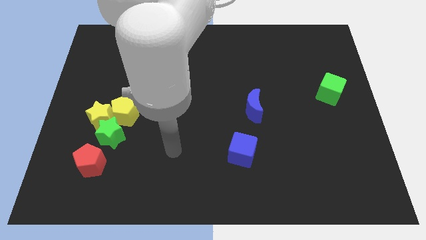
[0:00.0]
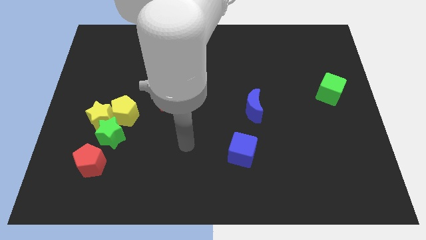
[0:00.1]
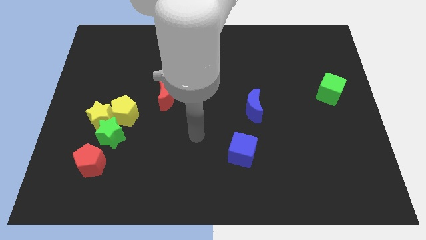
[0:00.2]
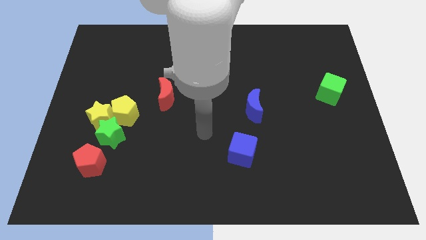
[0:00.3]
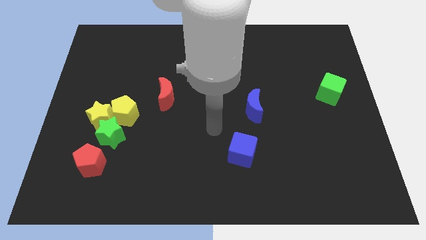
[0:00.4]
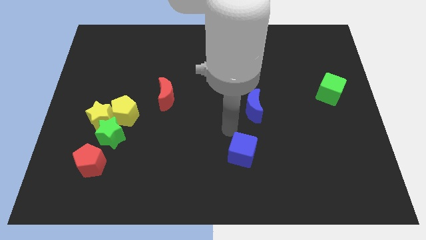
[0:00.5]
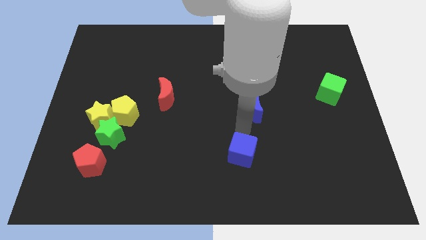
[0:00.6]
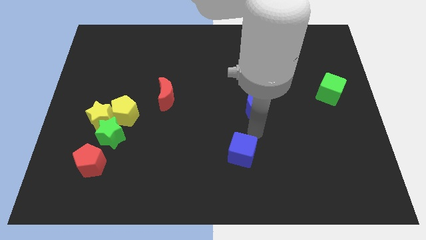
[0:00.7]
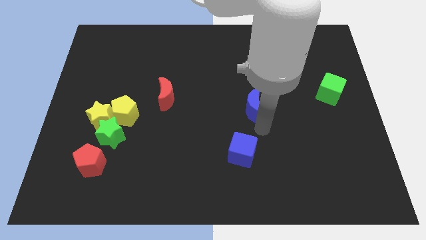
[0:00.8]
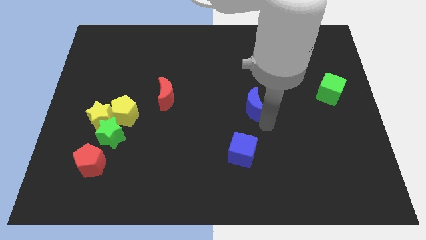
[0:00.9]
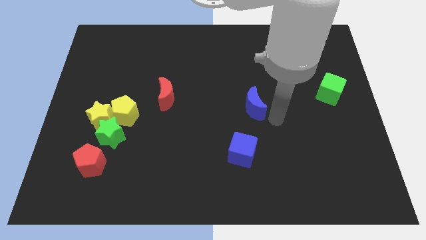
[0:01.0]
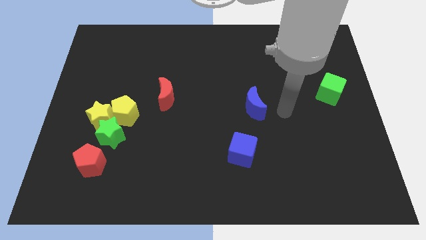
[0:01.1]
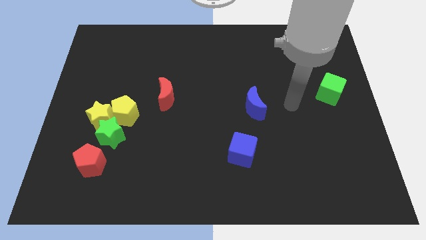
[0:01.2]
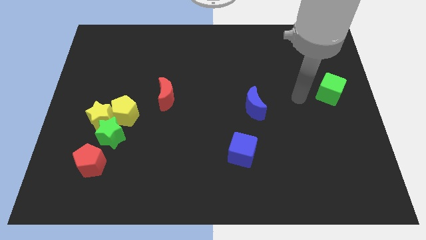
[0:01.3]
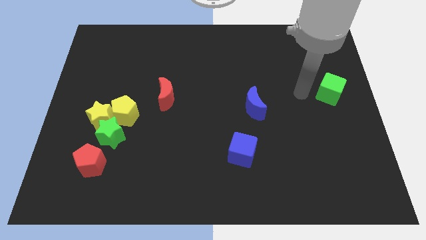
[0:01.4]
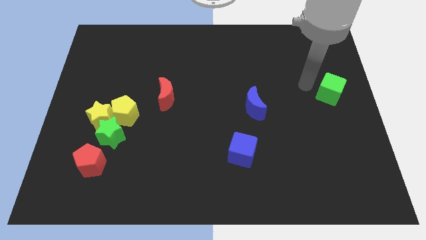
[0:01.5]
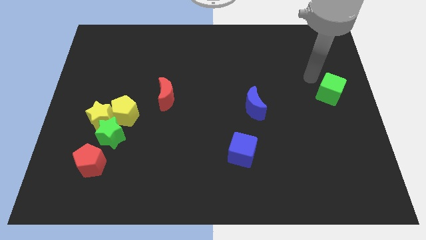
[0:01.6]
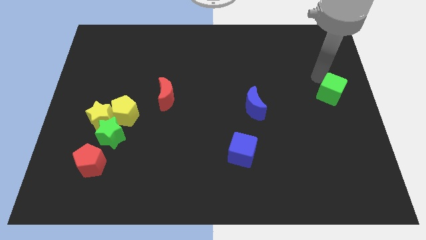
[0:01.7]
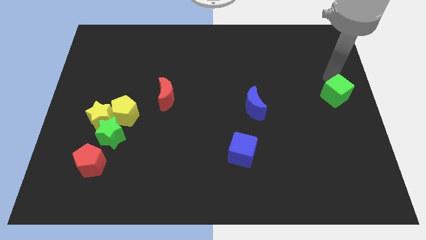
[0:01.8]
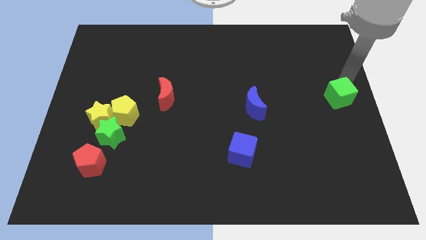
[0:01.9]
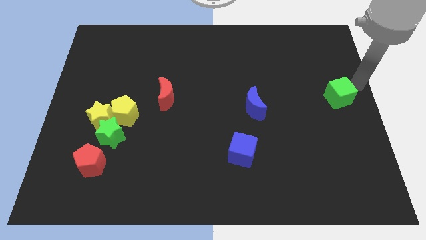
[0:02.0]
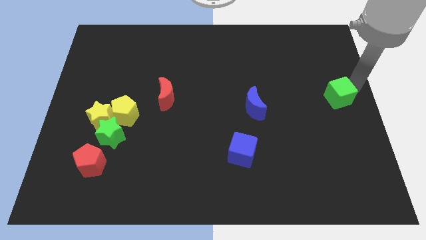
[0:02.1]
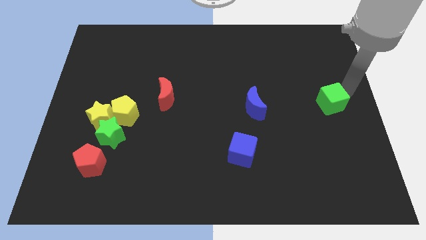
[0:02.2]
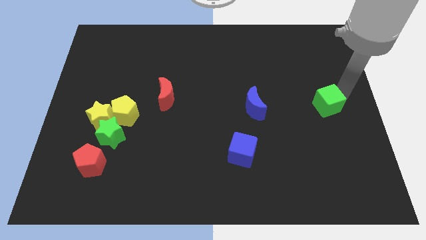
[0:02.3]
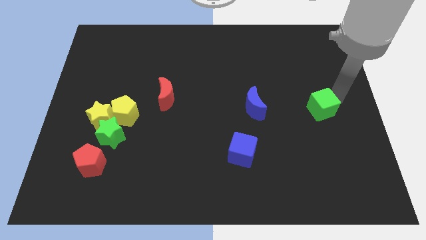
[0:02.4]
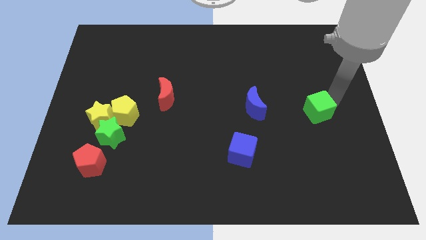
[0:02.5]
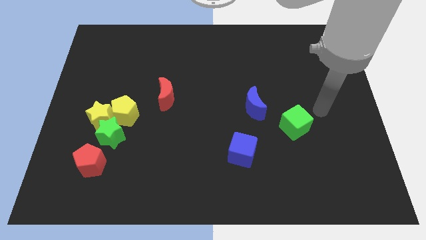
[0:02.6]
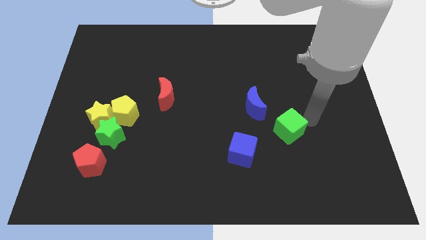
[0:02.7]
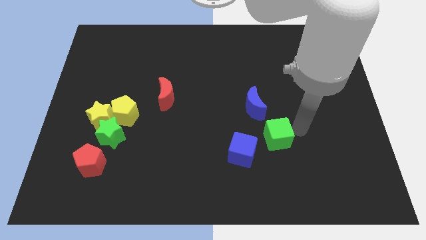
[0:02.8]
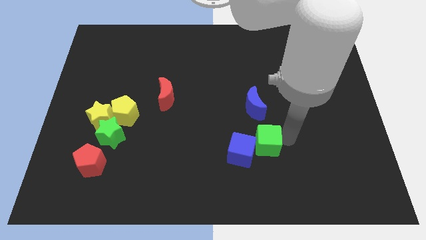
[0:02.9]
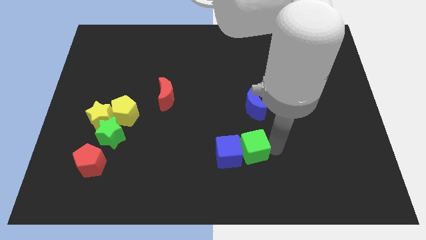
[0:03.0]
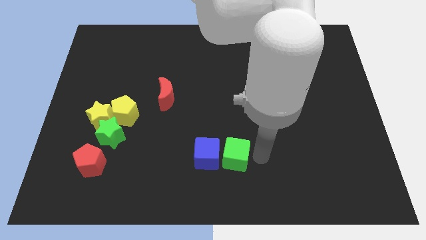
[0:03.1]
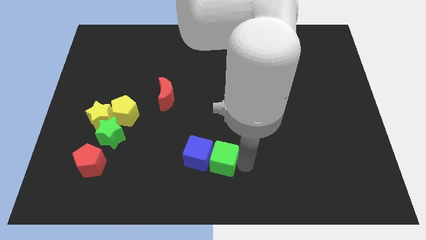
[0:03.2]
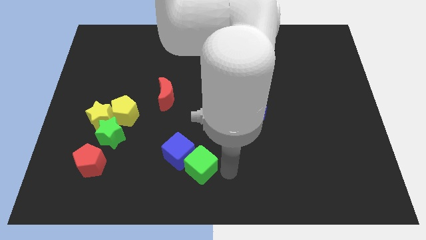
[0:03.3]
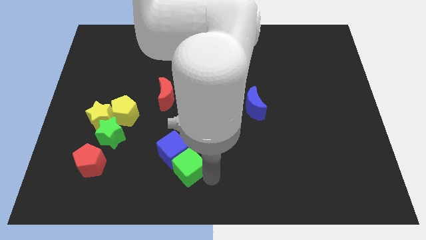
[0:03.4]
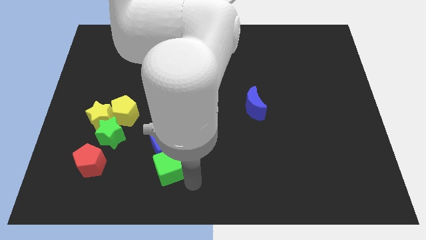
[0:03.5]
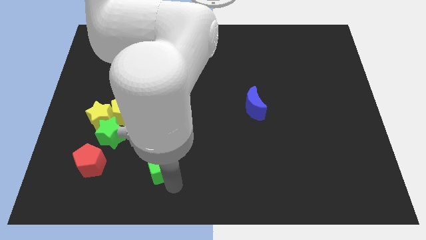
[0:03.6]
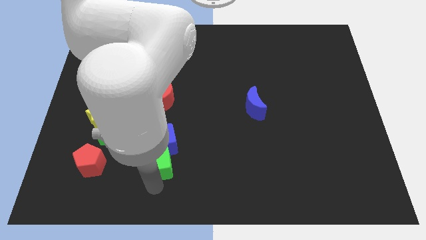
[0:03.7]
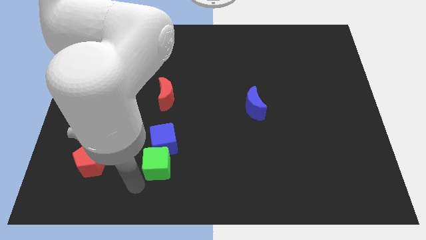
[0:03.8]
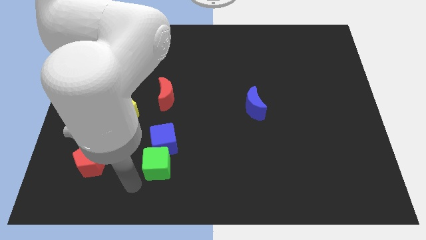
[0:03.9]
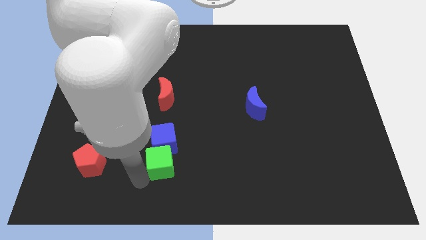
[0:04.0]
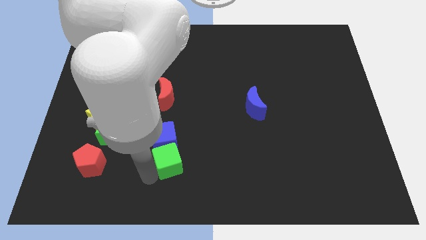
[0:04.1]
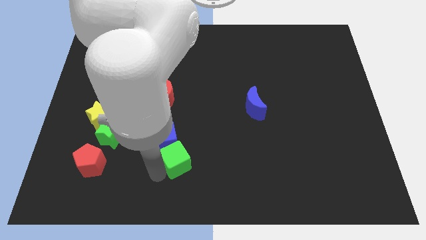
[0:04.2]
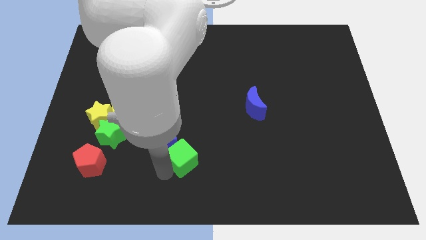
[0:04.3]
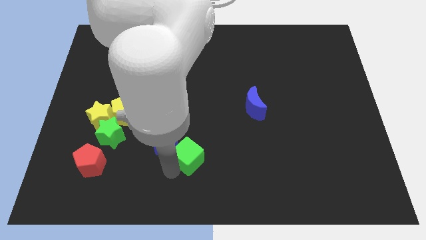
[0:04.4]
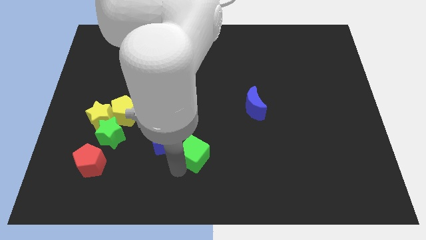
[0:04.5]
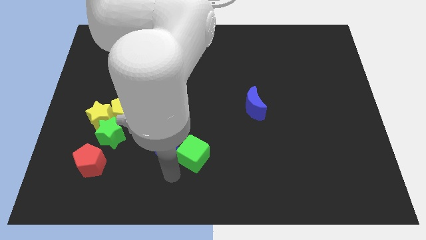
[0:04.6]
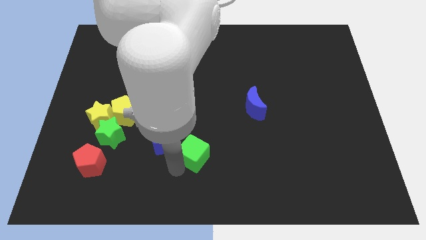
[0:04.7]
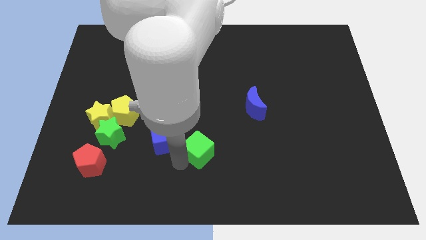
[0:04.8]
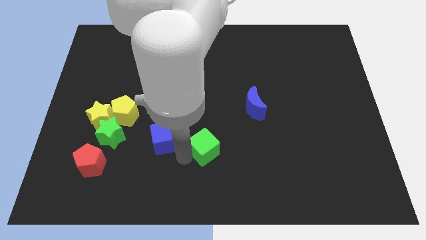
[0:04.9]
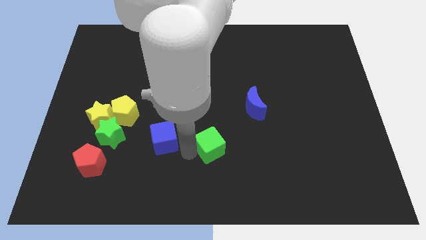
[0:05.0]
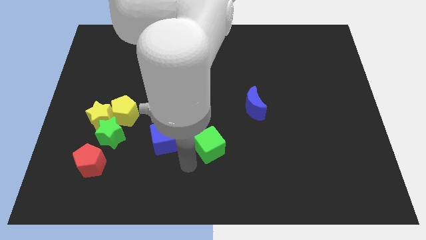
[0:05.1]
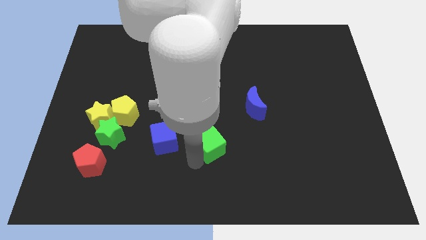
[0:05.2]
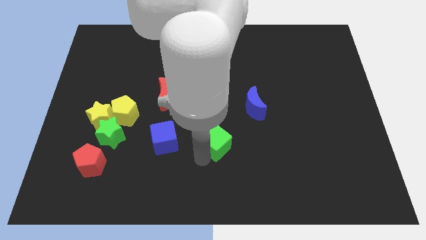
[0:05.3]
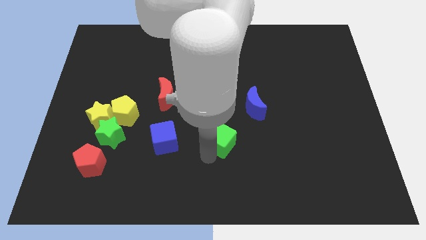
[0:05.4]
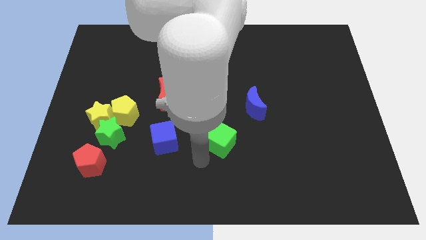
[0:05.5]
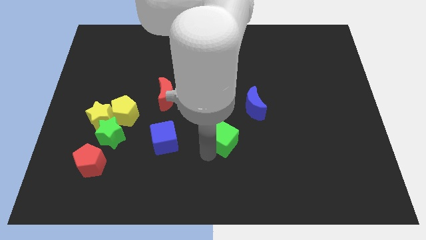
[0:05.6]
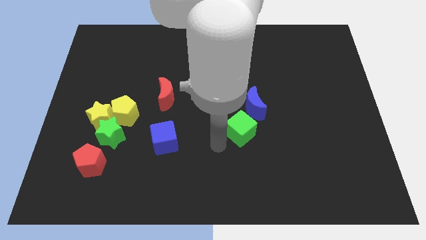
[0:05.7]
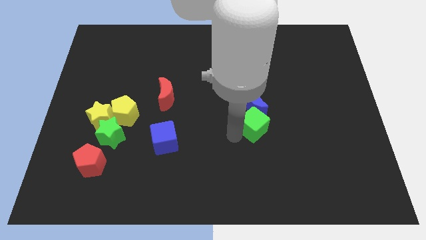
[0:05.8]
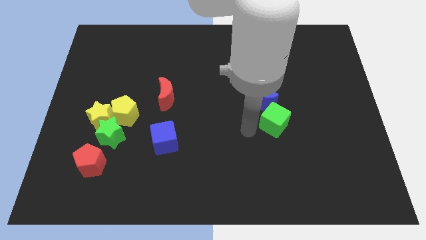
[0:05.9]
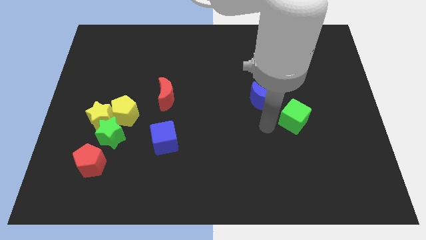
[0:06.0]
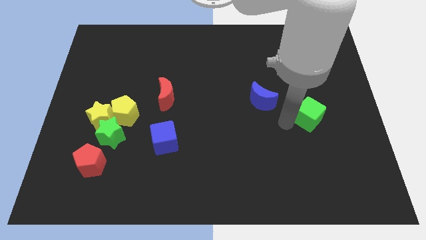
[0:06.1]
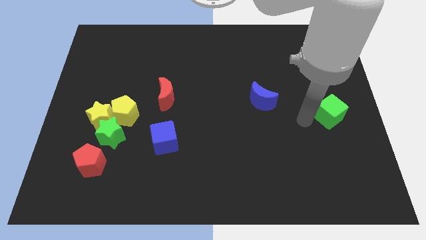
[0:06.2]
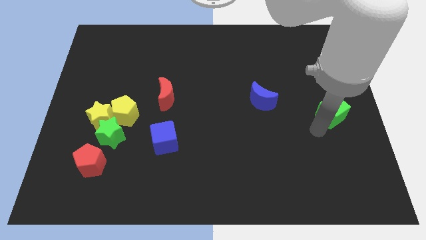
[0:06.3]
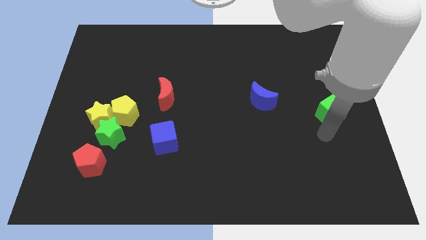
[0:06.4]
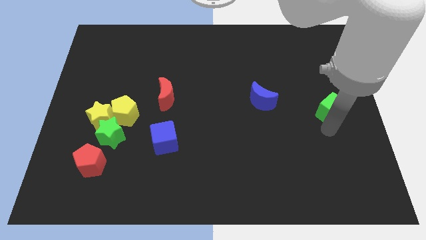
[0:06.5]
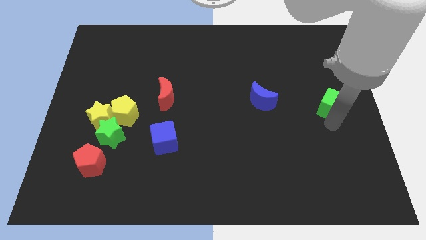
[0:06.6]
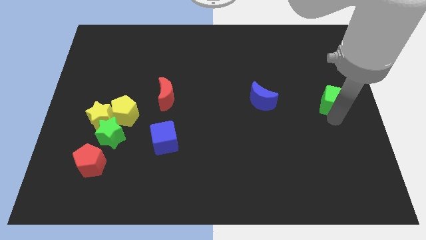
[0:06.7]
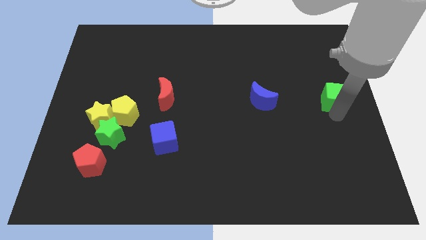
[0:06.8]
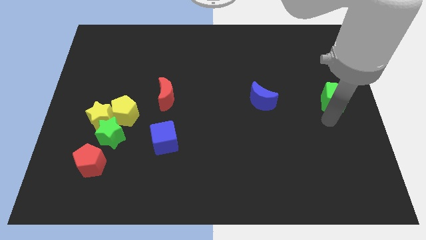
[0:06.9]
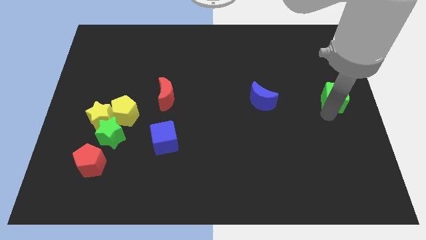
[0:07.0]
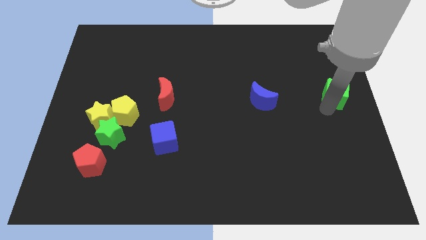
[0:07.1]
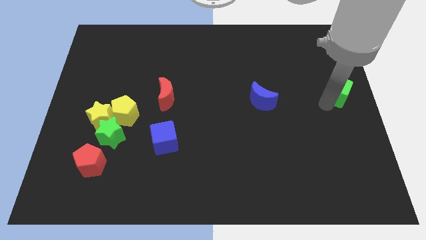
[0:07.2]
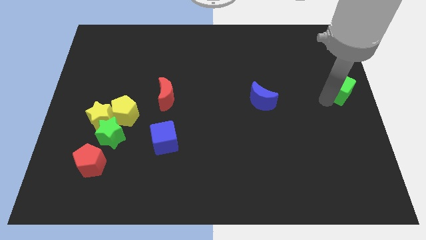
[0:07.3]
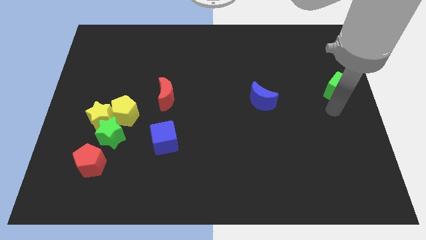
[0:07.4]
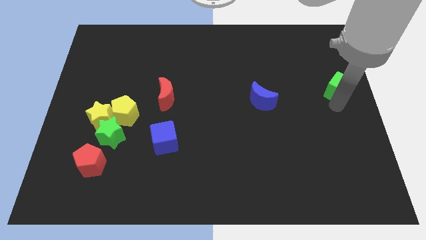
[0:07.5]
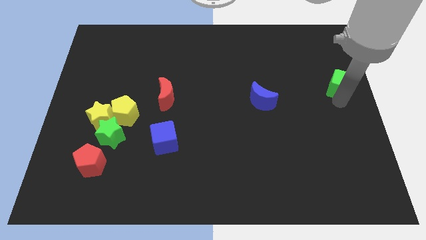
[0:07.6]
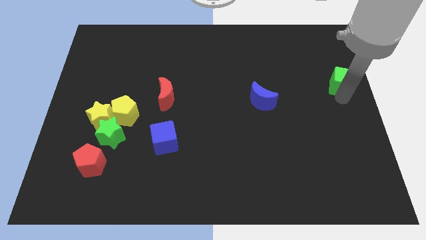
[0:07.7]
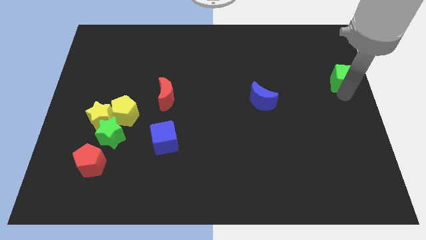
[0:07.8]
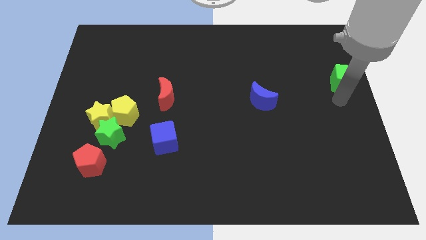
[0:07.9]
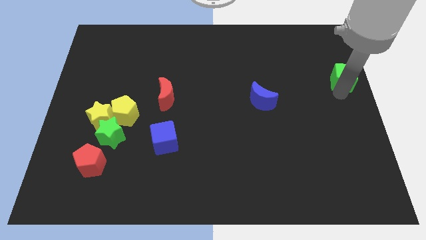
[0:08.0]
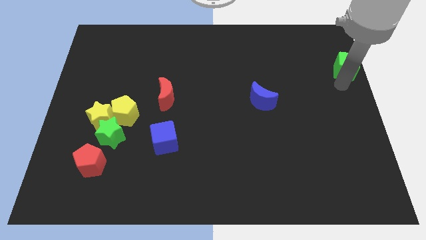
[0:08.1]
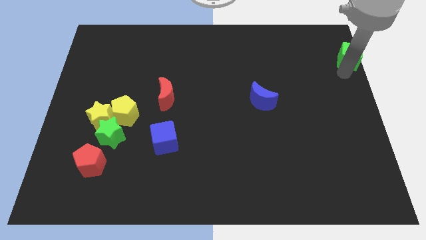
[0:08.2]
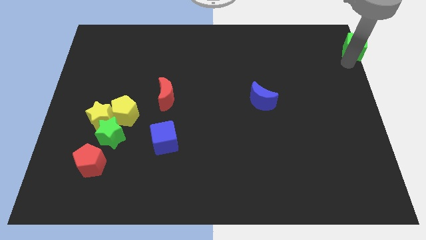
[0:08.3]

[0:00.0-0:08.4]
put the green cube to the top right corner
